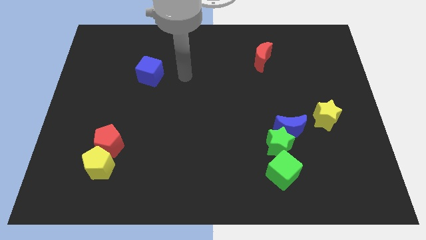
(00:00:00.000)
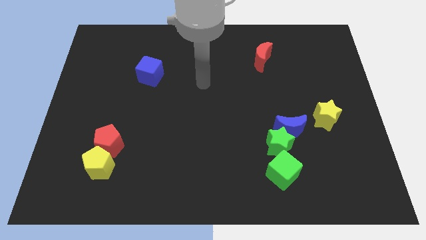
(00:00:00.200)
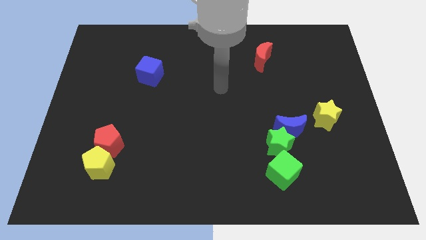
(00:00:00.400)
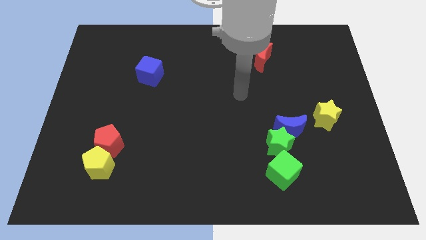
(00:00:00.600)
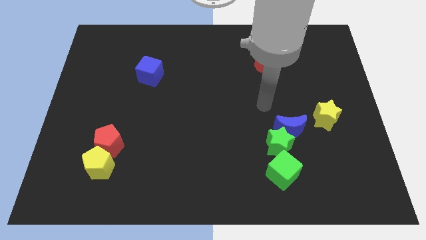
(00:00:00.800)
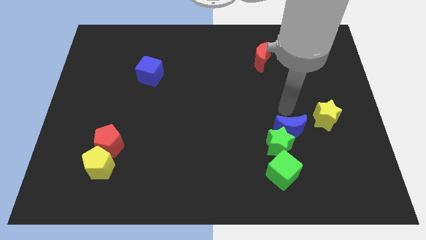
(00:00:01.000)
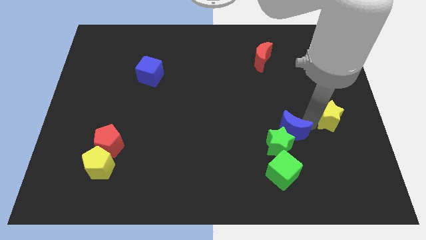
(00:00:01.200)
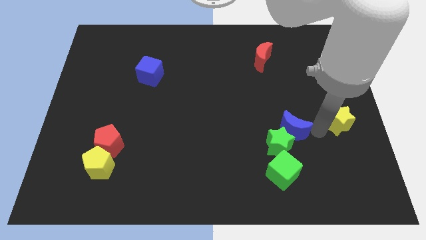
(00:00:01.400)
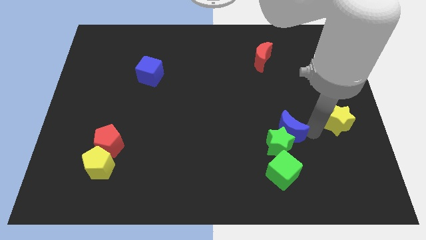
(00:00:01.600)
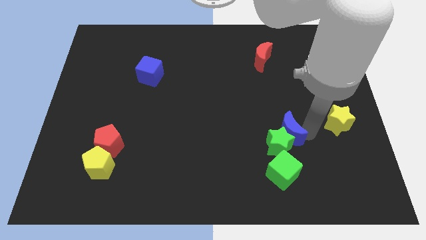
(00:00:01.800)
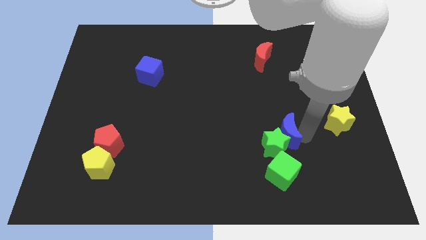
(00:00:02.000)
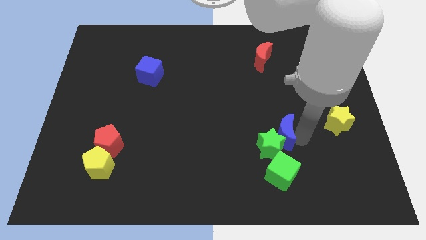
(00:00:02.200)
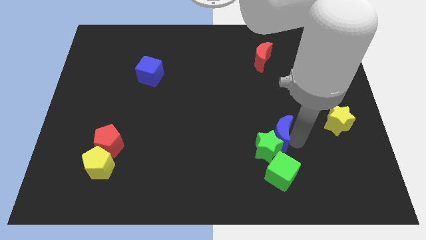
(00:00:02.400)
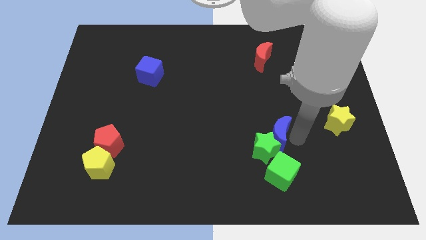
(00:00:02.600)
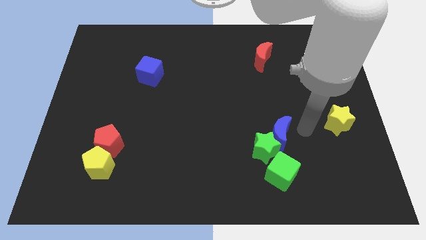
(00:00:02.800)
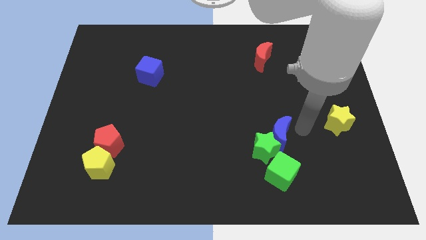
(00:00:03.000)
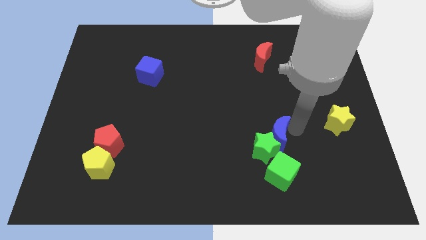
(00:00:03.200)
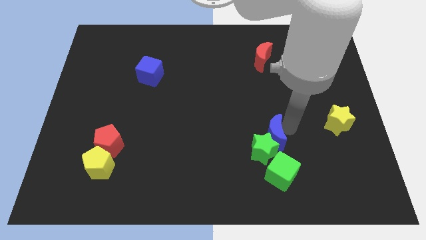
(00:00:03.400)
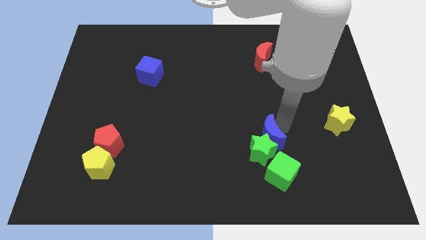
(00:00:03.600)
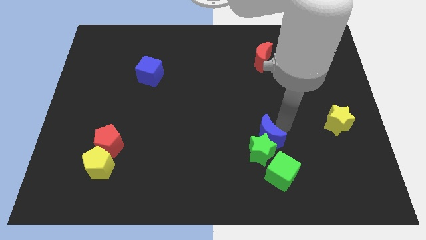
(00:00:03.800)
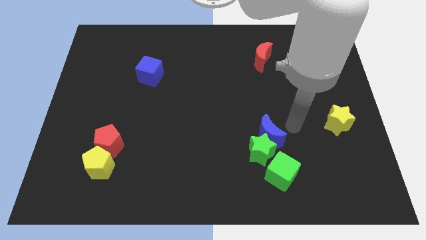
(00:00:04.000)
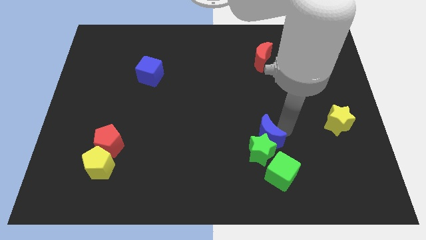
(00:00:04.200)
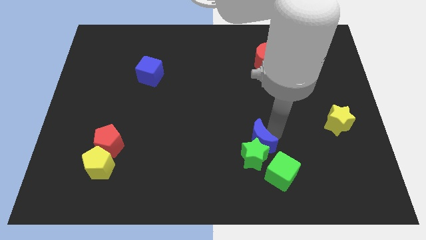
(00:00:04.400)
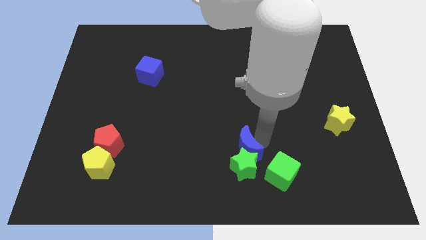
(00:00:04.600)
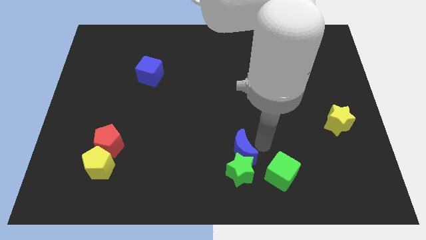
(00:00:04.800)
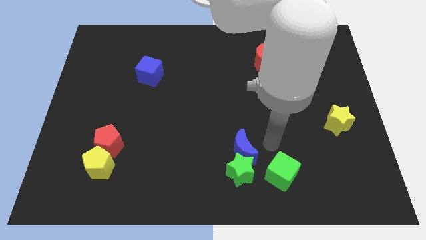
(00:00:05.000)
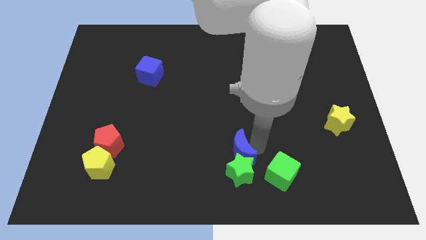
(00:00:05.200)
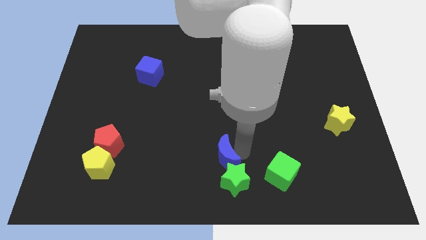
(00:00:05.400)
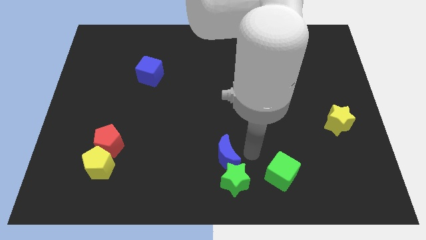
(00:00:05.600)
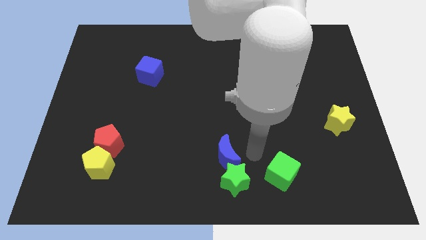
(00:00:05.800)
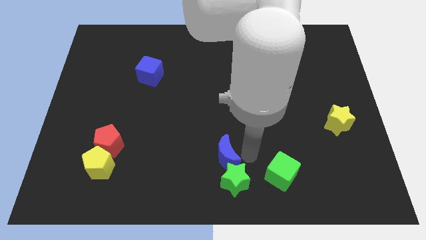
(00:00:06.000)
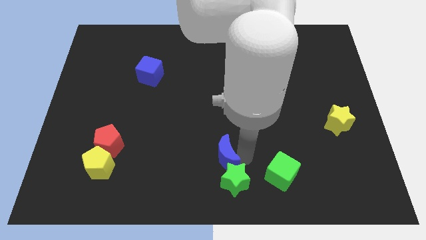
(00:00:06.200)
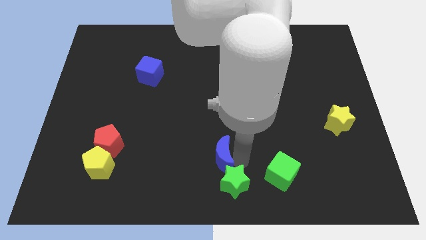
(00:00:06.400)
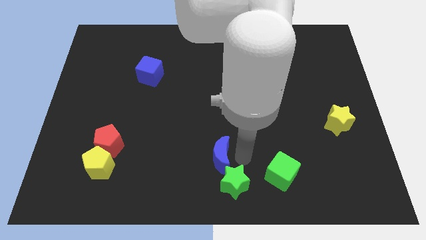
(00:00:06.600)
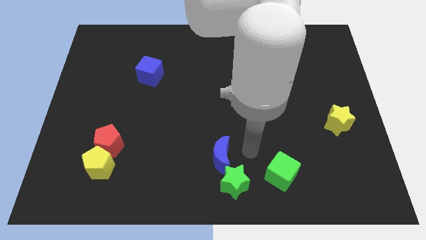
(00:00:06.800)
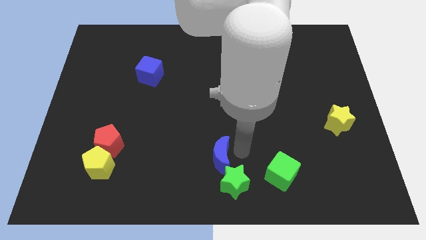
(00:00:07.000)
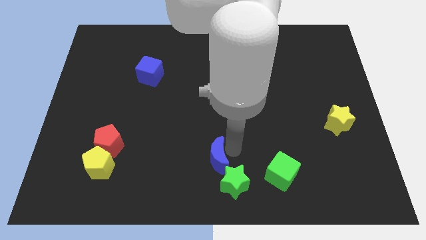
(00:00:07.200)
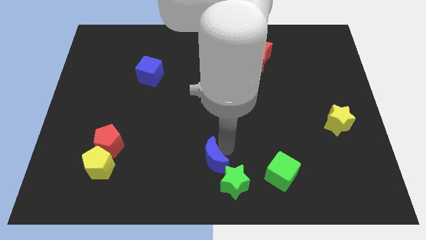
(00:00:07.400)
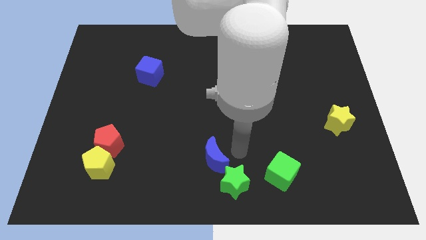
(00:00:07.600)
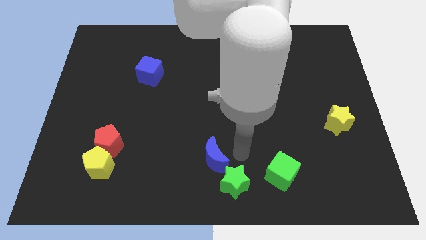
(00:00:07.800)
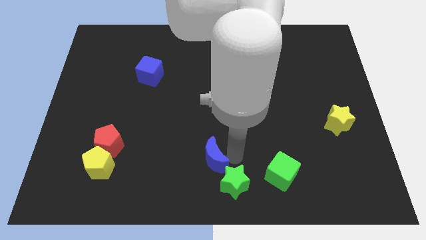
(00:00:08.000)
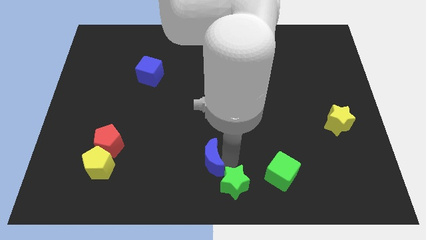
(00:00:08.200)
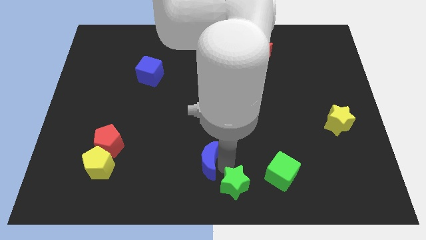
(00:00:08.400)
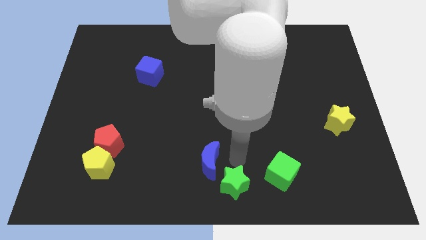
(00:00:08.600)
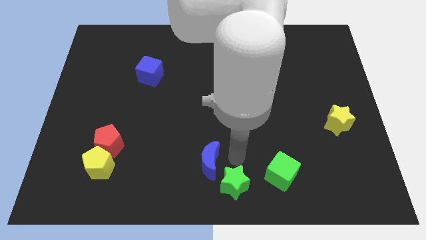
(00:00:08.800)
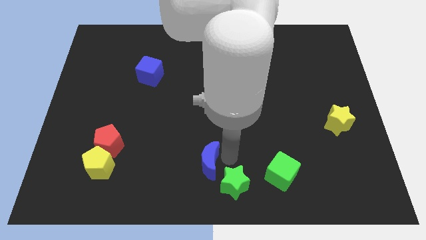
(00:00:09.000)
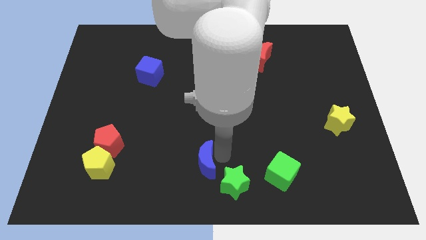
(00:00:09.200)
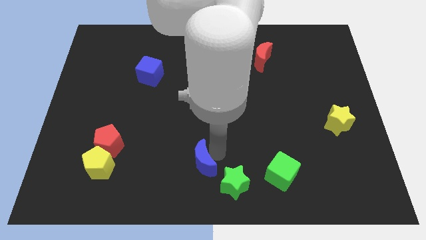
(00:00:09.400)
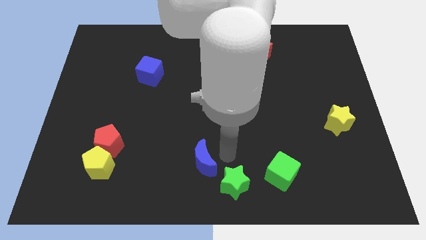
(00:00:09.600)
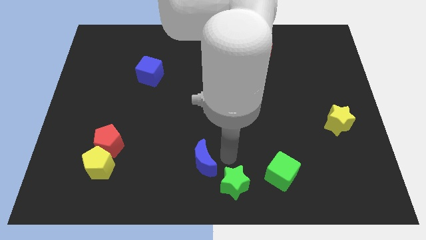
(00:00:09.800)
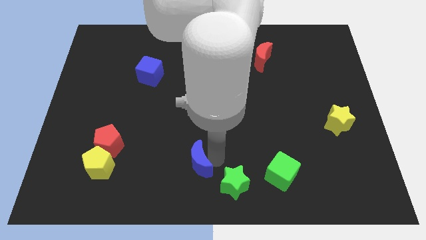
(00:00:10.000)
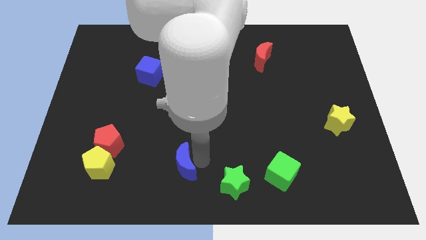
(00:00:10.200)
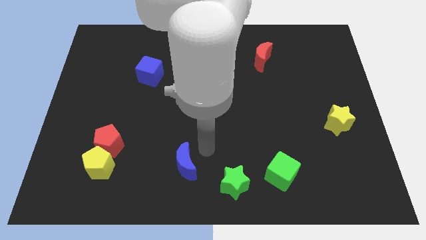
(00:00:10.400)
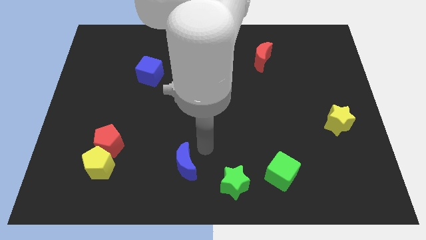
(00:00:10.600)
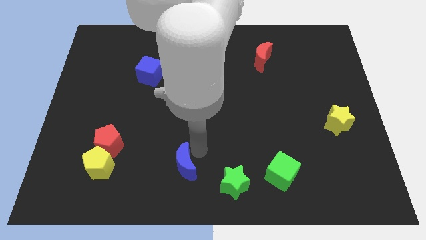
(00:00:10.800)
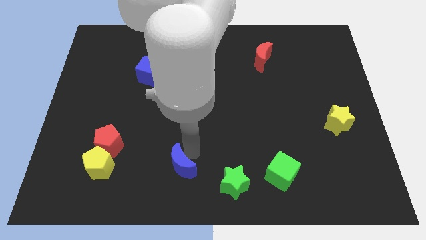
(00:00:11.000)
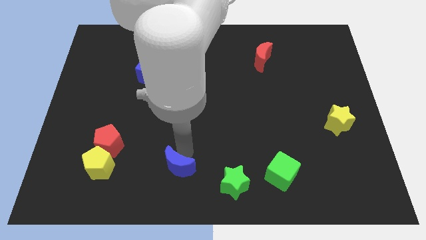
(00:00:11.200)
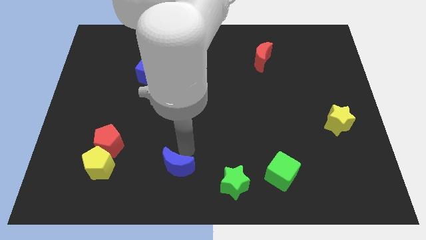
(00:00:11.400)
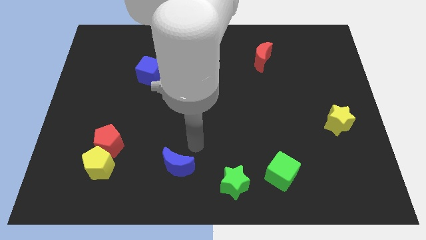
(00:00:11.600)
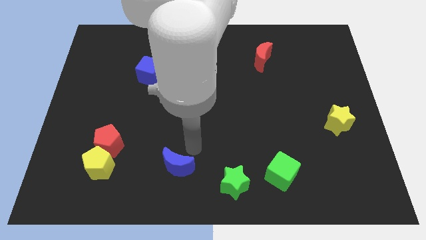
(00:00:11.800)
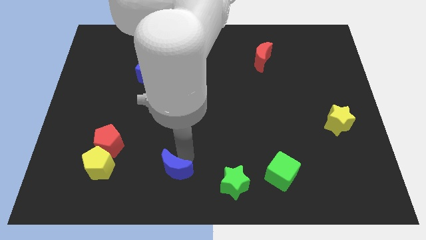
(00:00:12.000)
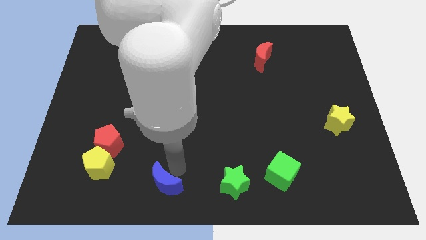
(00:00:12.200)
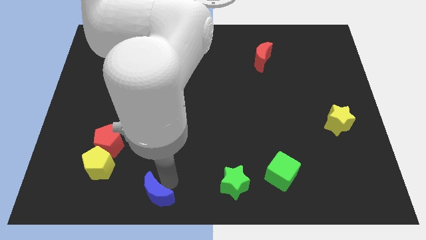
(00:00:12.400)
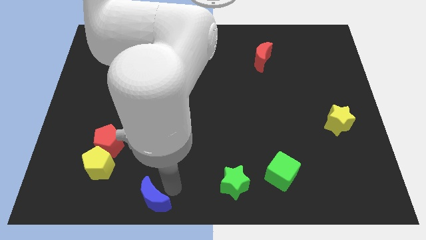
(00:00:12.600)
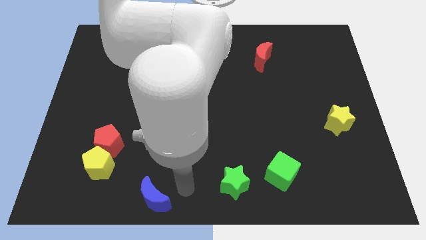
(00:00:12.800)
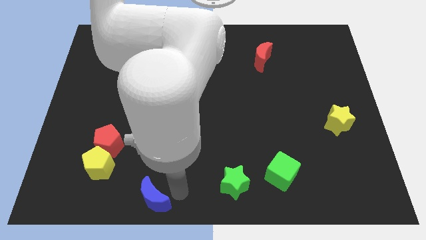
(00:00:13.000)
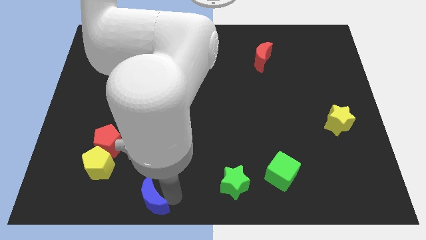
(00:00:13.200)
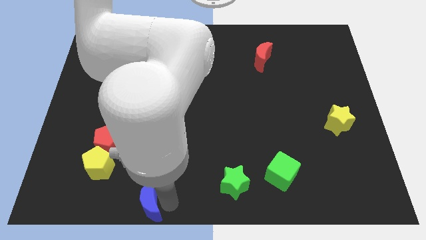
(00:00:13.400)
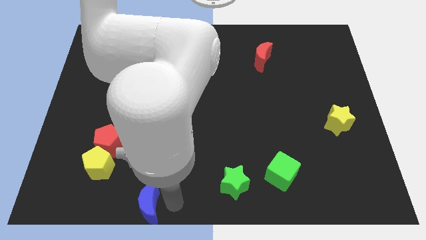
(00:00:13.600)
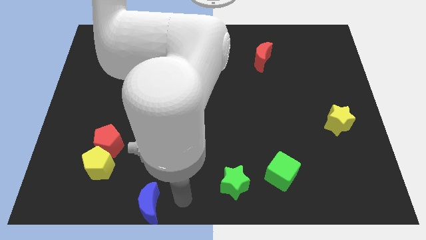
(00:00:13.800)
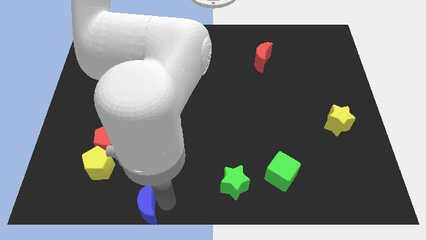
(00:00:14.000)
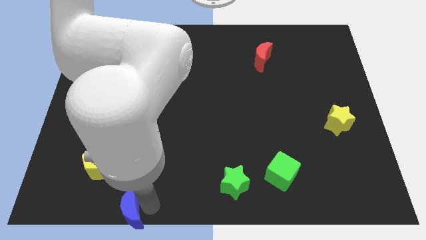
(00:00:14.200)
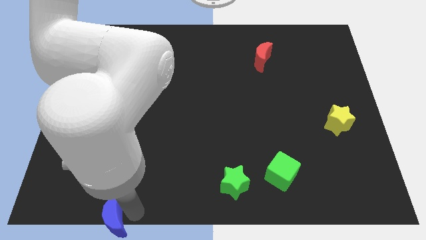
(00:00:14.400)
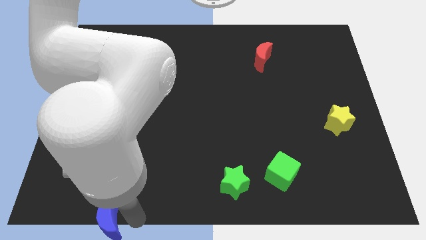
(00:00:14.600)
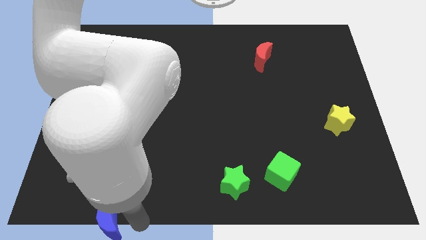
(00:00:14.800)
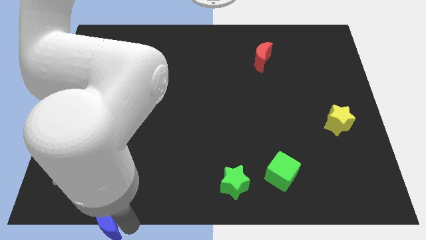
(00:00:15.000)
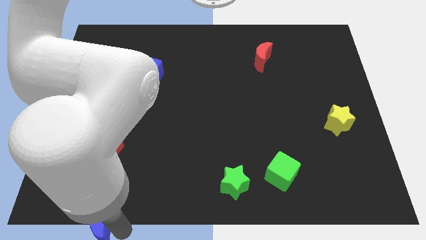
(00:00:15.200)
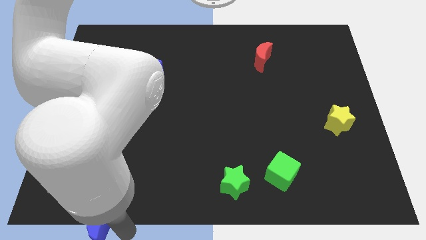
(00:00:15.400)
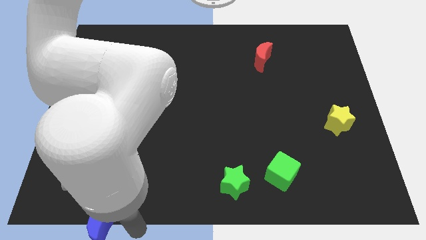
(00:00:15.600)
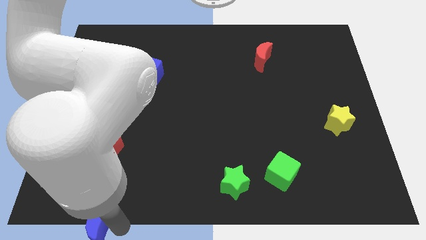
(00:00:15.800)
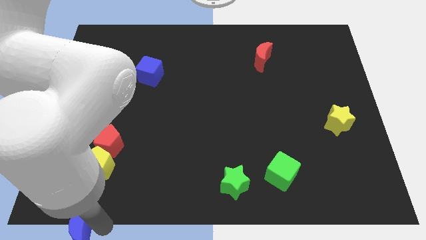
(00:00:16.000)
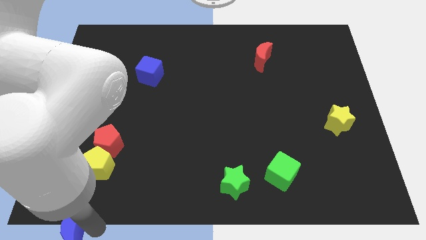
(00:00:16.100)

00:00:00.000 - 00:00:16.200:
move the blue moon to the bottom left of the board
